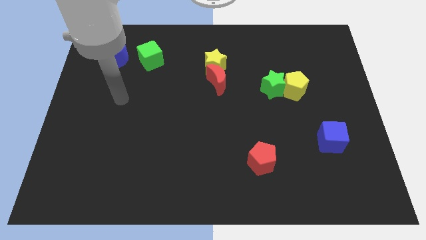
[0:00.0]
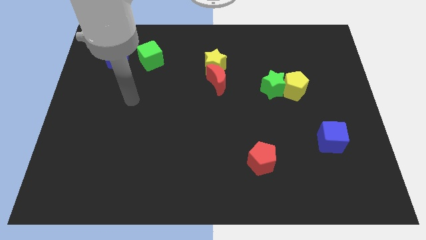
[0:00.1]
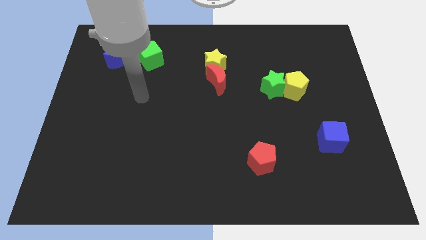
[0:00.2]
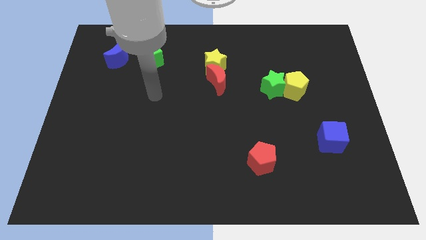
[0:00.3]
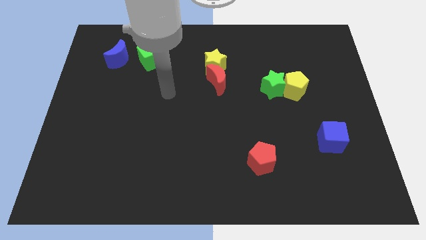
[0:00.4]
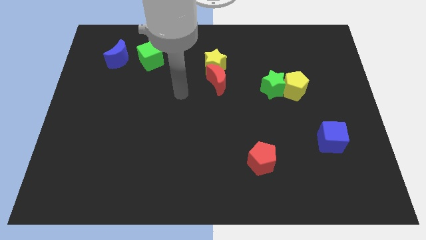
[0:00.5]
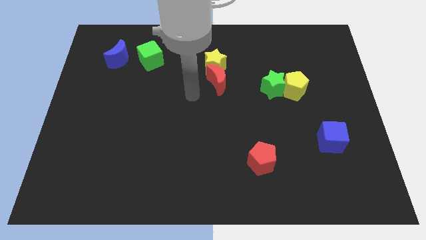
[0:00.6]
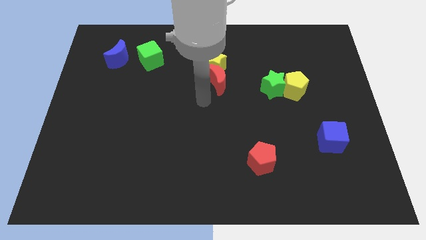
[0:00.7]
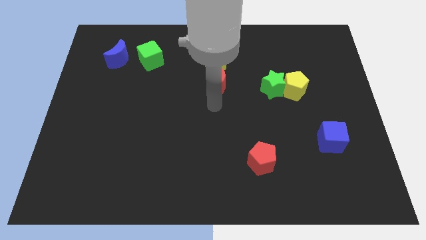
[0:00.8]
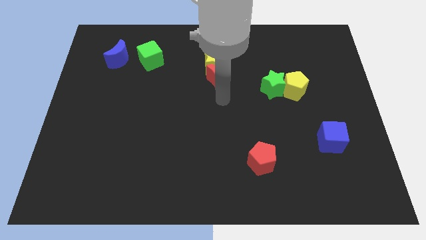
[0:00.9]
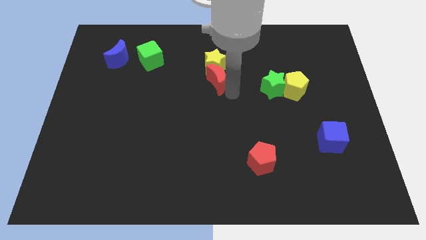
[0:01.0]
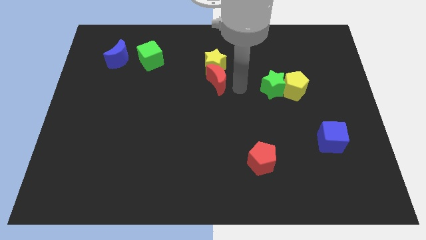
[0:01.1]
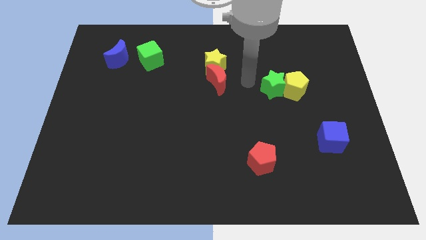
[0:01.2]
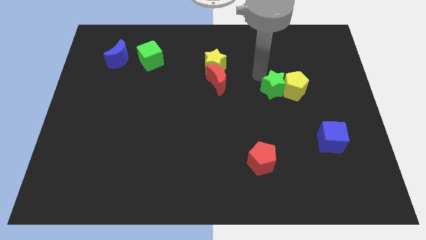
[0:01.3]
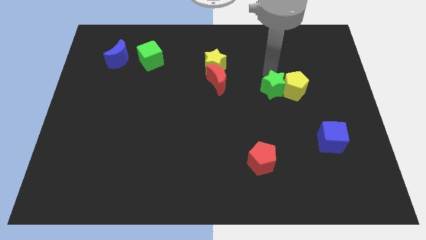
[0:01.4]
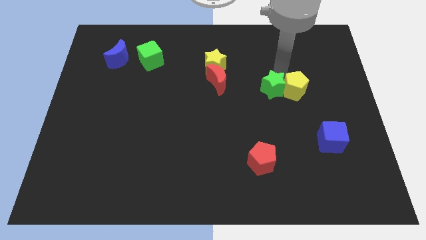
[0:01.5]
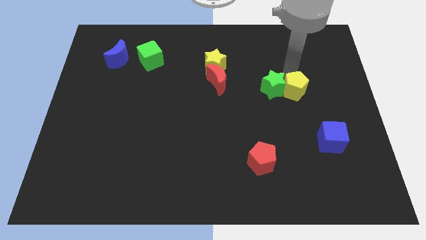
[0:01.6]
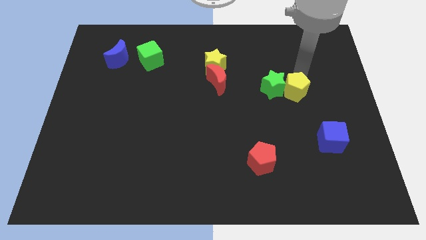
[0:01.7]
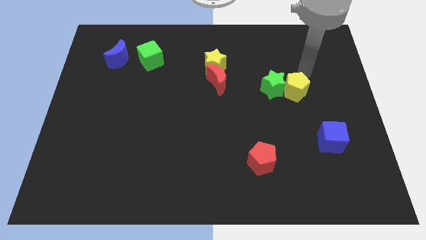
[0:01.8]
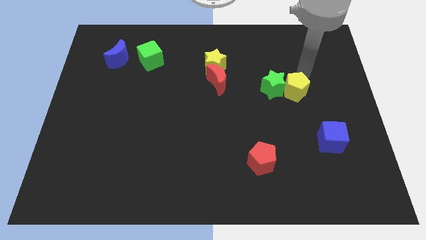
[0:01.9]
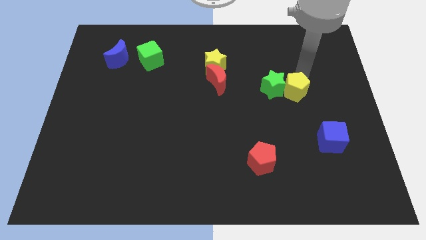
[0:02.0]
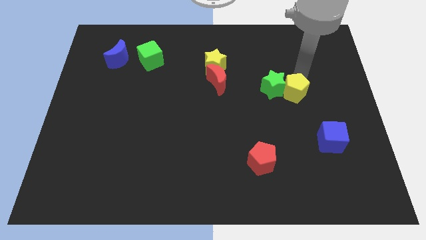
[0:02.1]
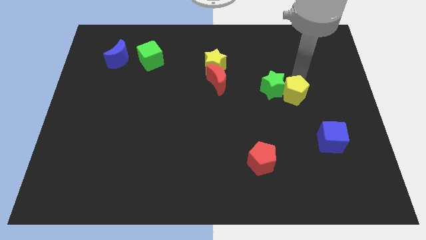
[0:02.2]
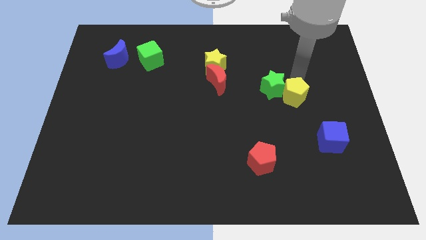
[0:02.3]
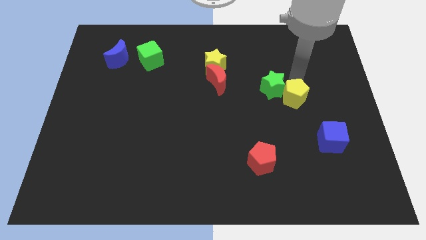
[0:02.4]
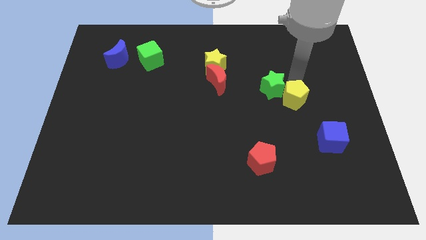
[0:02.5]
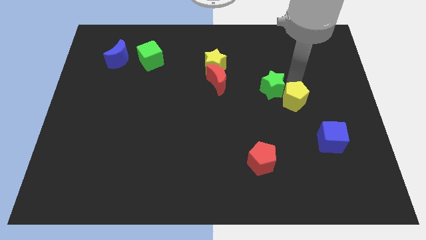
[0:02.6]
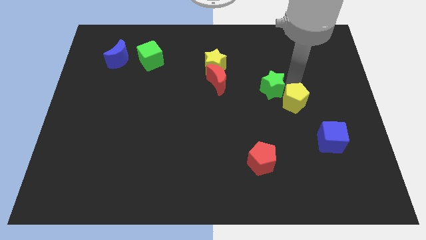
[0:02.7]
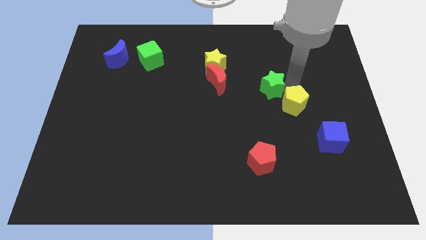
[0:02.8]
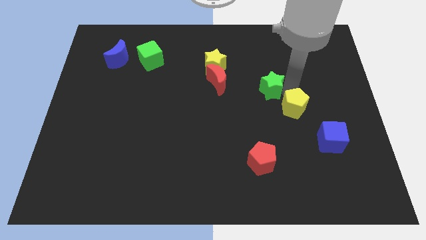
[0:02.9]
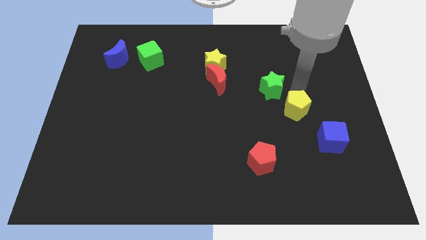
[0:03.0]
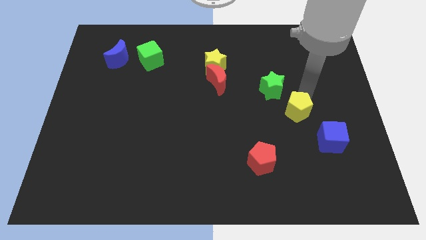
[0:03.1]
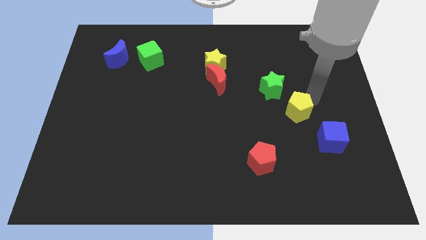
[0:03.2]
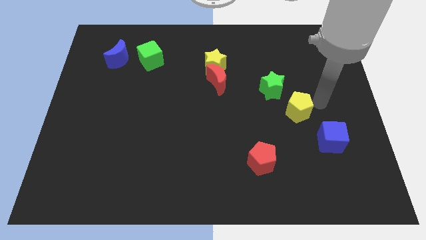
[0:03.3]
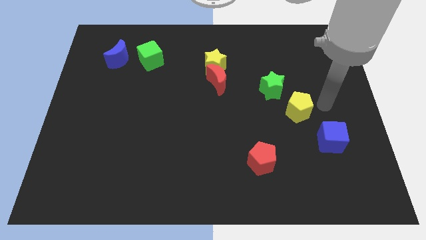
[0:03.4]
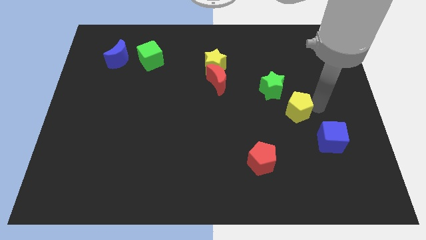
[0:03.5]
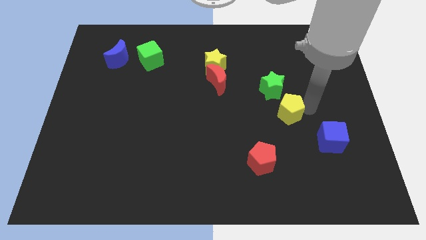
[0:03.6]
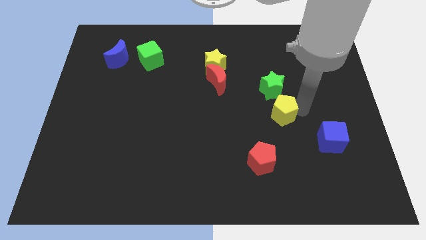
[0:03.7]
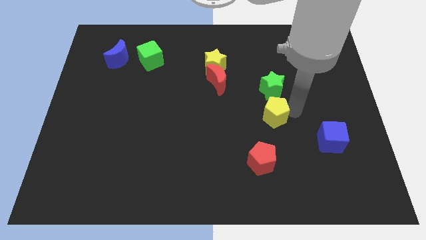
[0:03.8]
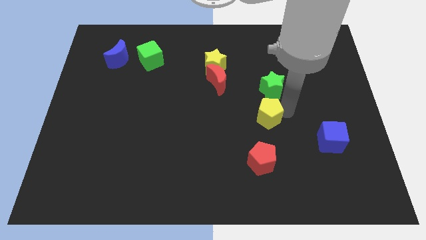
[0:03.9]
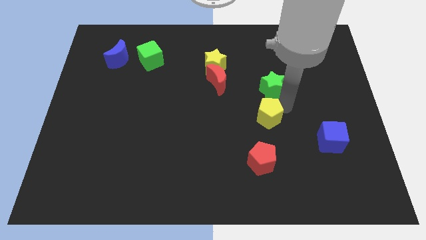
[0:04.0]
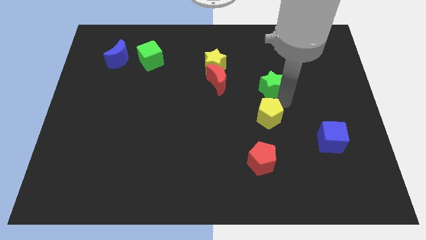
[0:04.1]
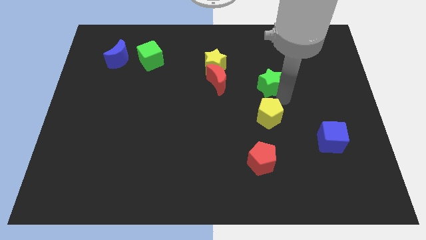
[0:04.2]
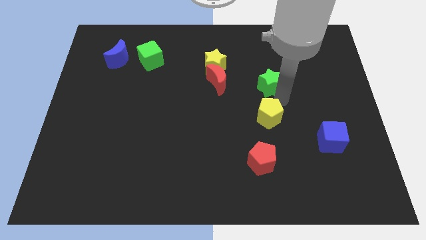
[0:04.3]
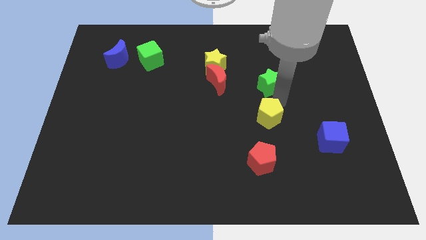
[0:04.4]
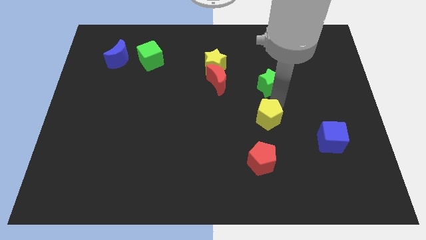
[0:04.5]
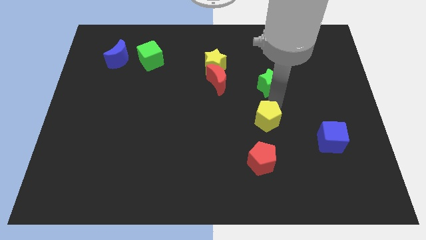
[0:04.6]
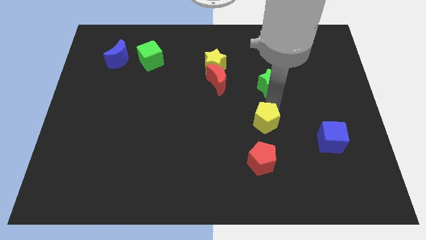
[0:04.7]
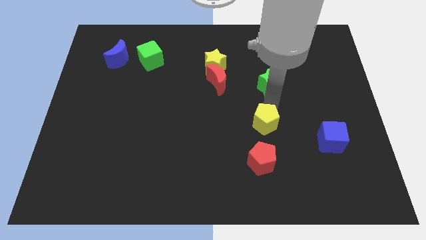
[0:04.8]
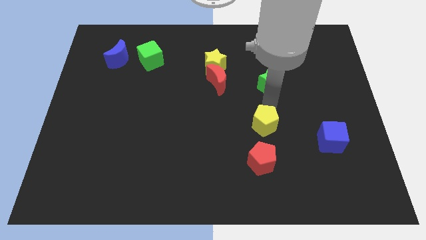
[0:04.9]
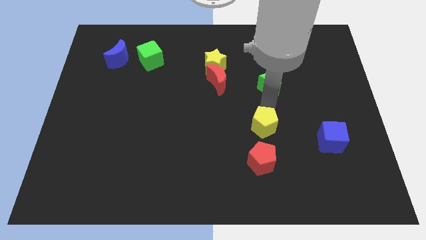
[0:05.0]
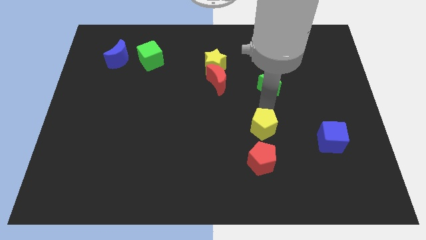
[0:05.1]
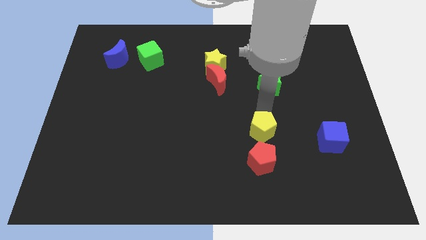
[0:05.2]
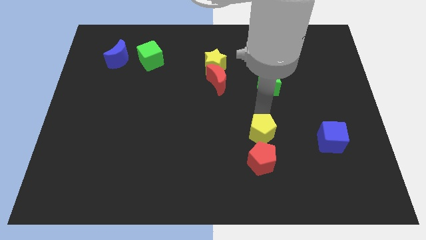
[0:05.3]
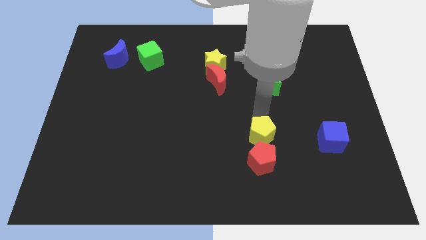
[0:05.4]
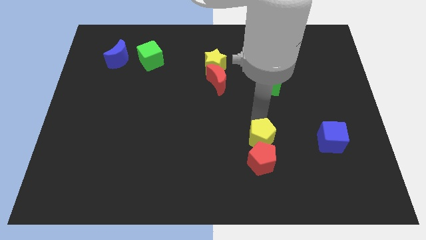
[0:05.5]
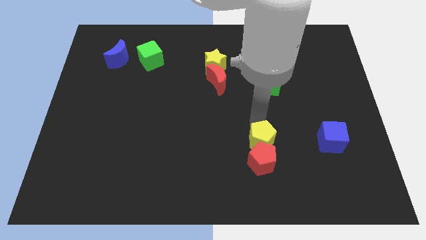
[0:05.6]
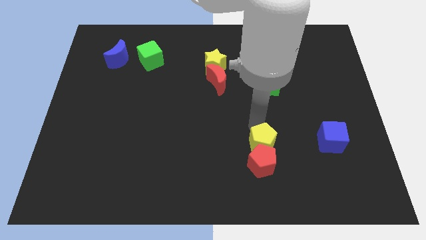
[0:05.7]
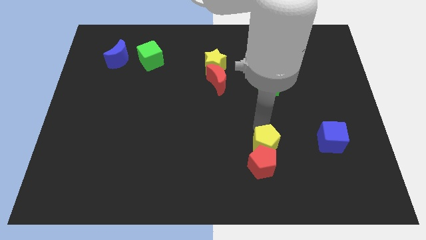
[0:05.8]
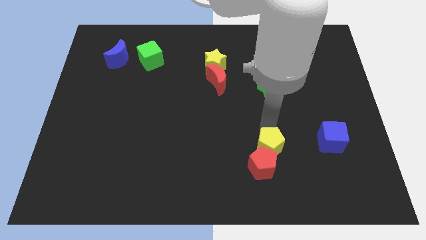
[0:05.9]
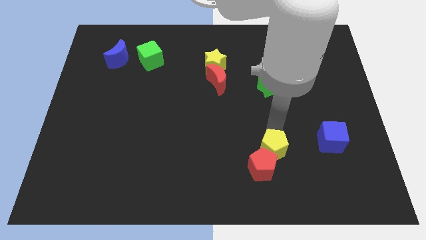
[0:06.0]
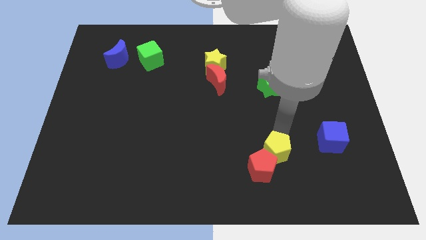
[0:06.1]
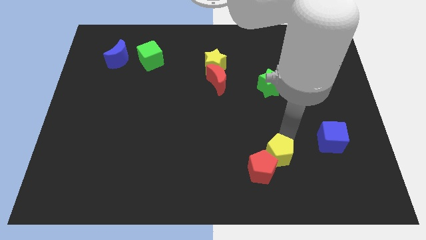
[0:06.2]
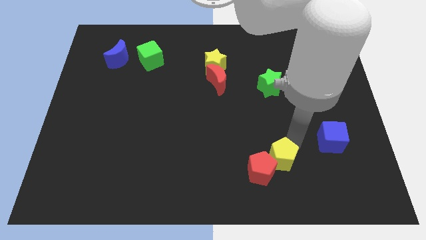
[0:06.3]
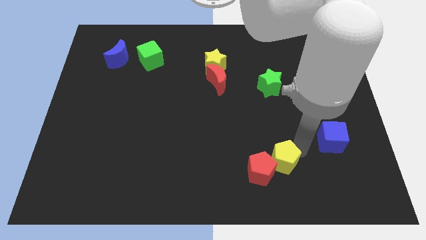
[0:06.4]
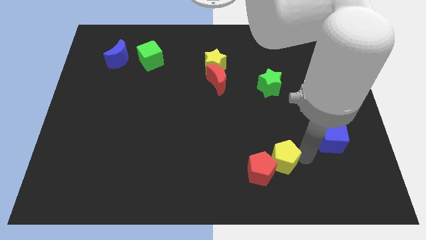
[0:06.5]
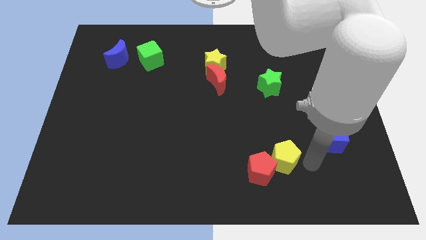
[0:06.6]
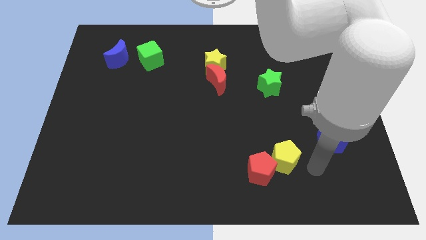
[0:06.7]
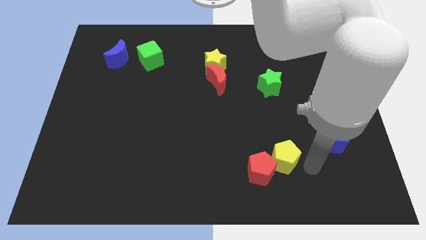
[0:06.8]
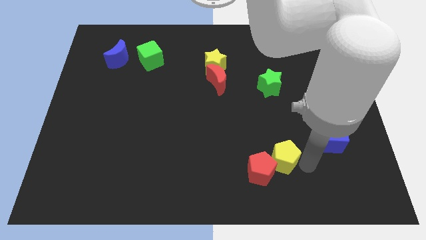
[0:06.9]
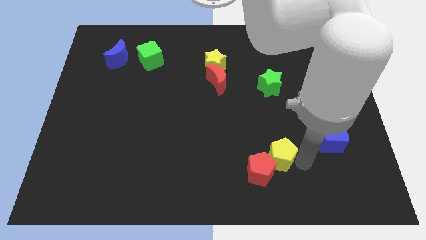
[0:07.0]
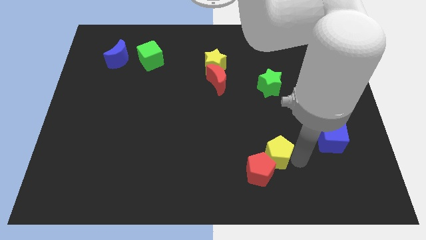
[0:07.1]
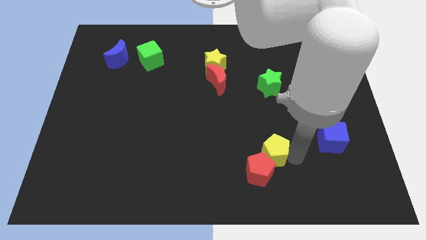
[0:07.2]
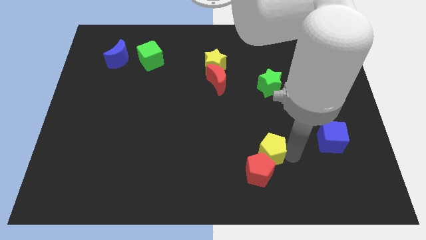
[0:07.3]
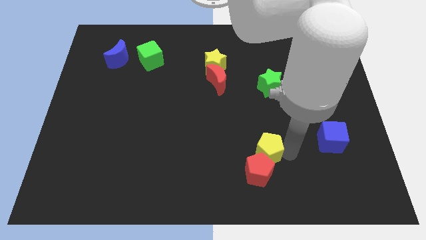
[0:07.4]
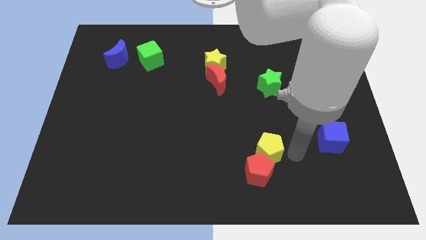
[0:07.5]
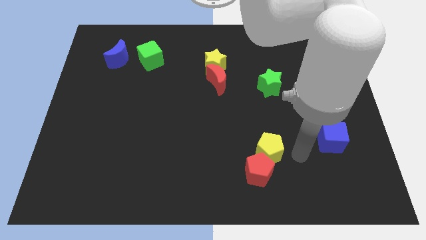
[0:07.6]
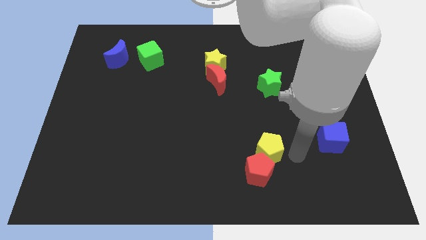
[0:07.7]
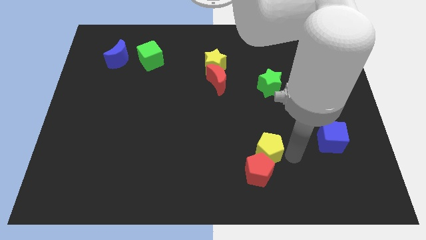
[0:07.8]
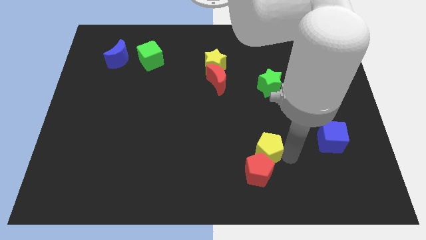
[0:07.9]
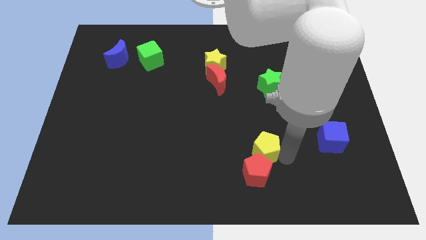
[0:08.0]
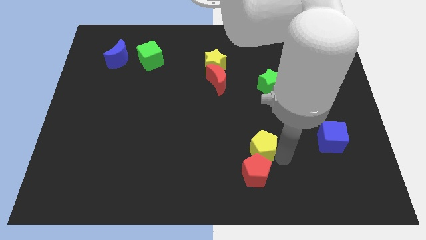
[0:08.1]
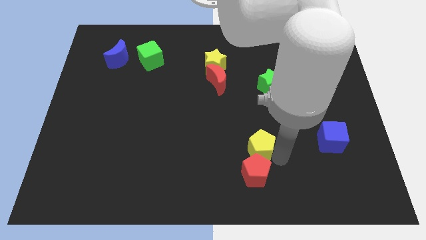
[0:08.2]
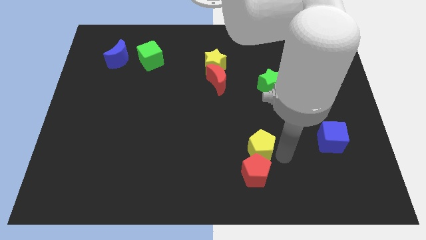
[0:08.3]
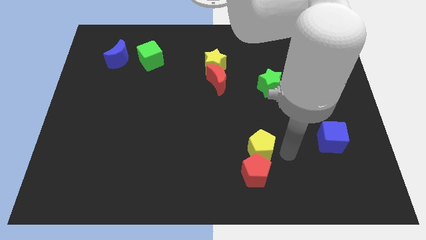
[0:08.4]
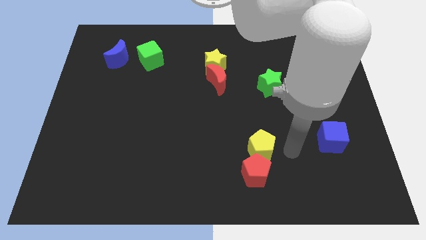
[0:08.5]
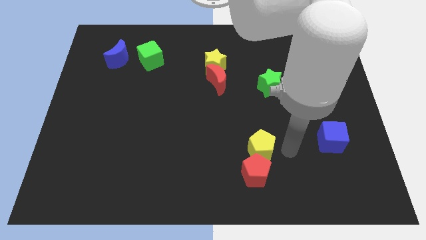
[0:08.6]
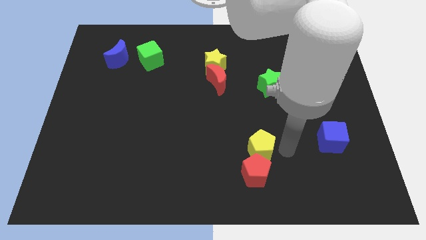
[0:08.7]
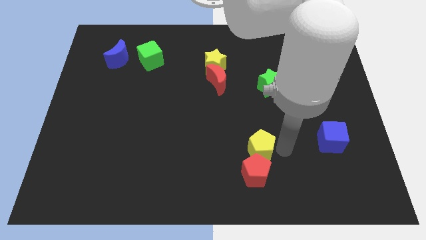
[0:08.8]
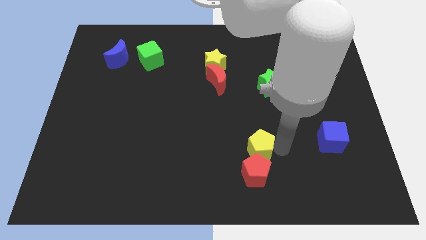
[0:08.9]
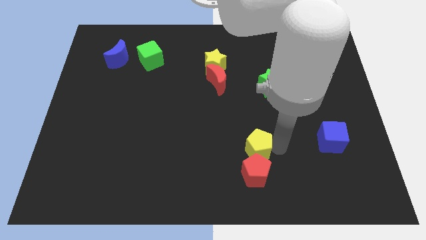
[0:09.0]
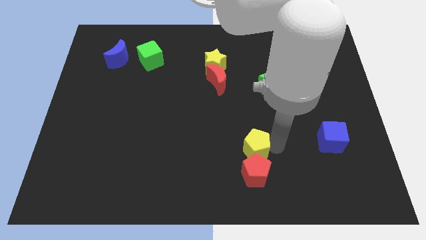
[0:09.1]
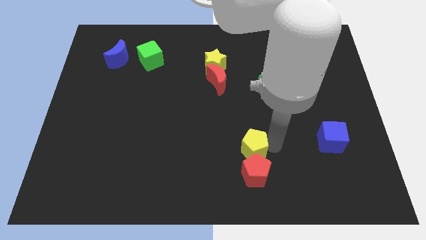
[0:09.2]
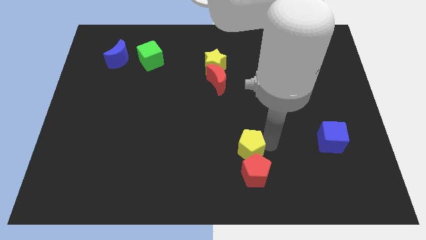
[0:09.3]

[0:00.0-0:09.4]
slide the yellow pentagon down and then to the left
